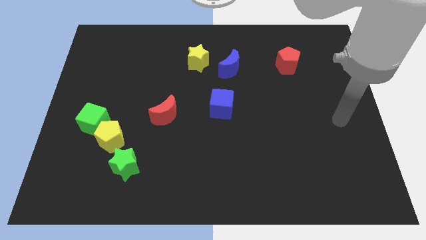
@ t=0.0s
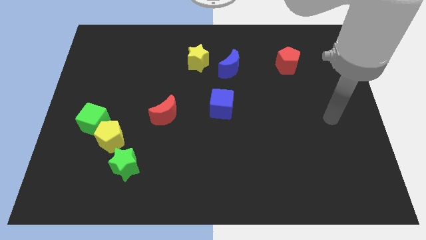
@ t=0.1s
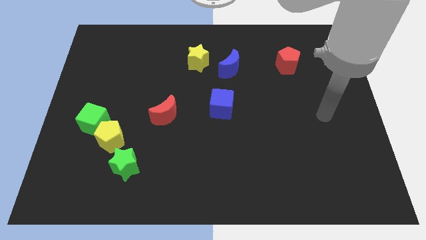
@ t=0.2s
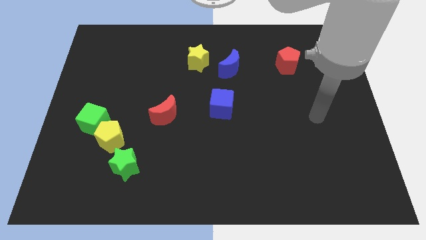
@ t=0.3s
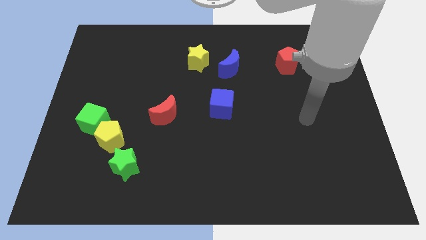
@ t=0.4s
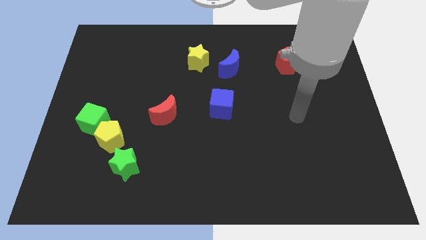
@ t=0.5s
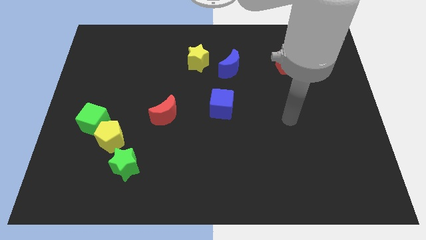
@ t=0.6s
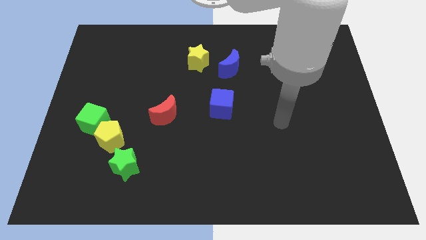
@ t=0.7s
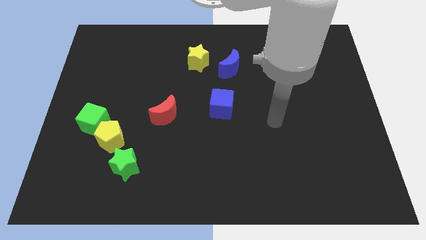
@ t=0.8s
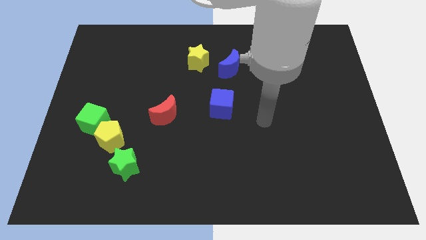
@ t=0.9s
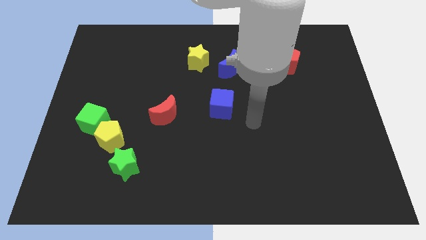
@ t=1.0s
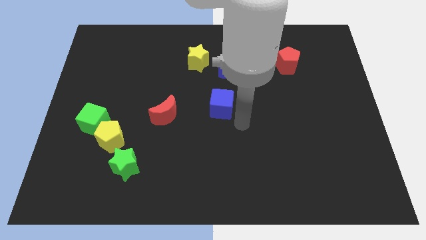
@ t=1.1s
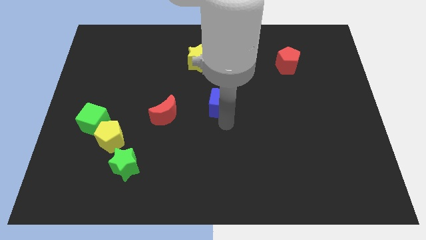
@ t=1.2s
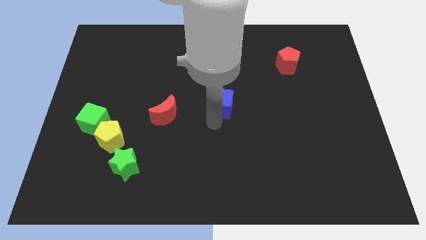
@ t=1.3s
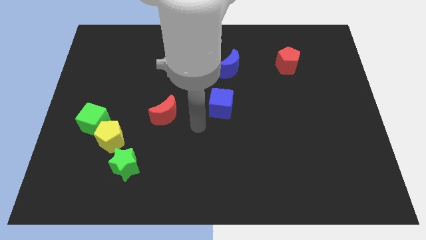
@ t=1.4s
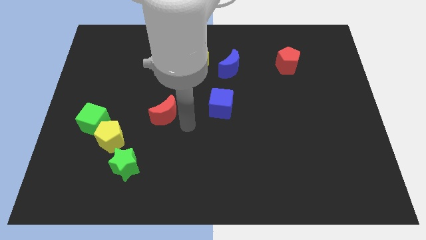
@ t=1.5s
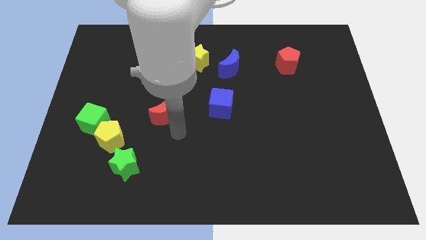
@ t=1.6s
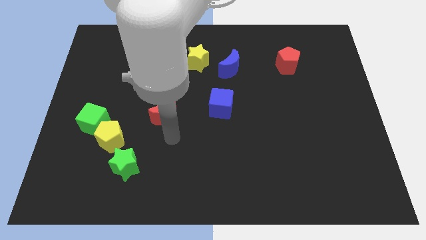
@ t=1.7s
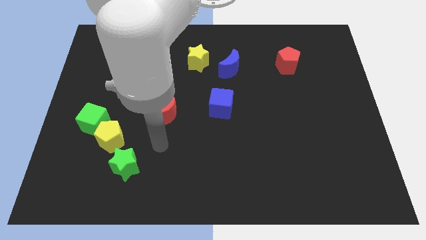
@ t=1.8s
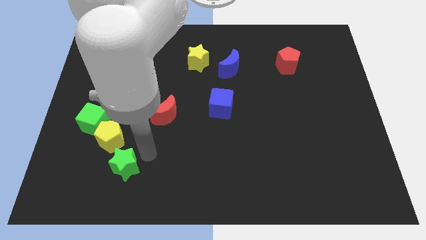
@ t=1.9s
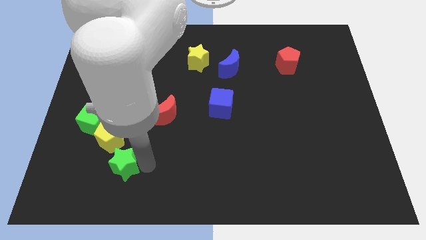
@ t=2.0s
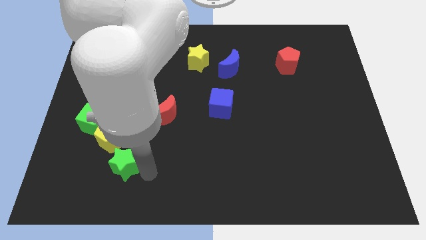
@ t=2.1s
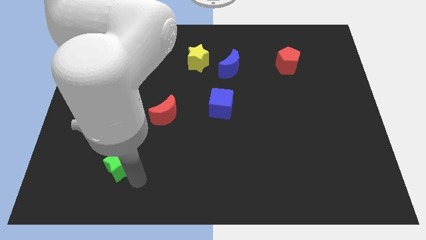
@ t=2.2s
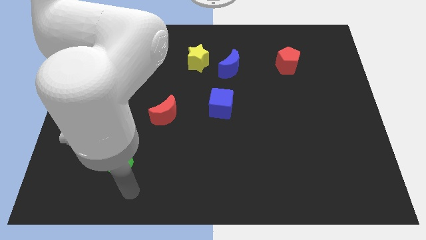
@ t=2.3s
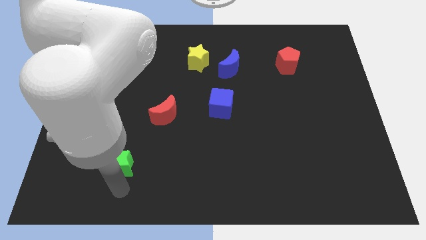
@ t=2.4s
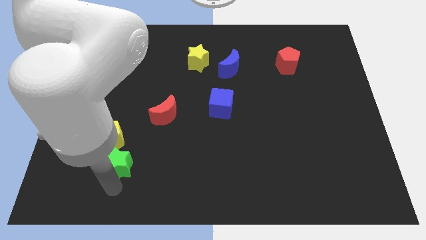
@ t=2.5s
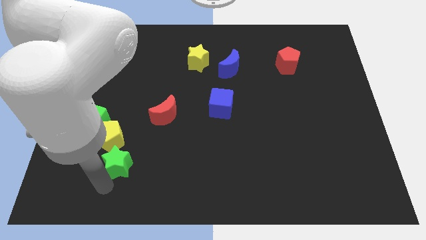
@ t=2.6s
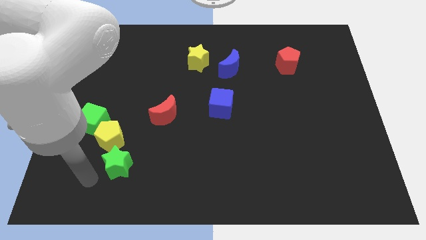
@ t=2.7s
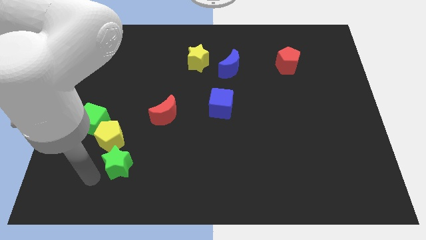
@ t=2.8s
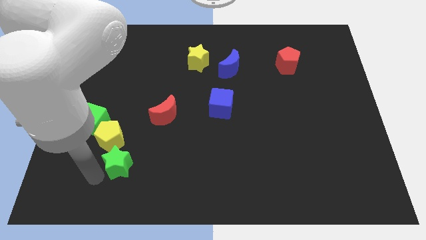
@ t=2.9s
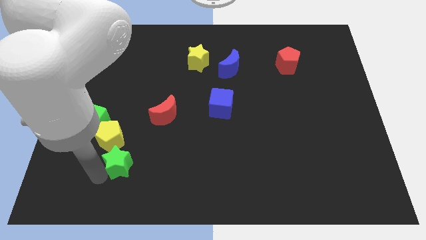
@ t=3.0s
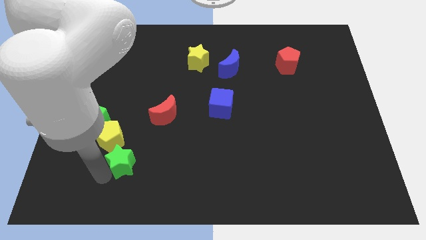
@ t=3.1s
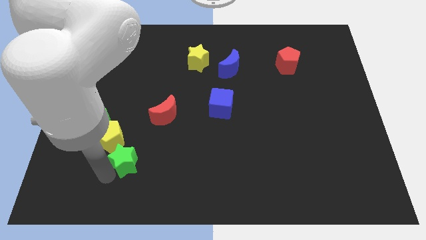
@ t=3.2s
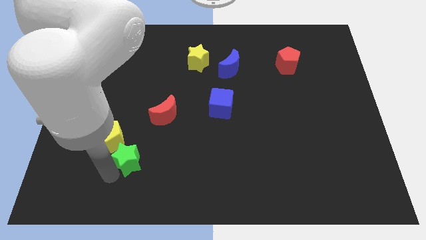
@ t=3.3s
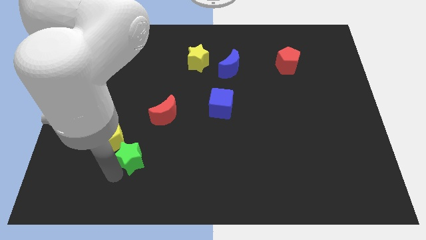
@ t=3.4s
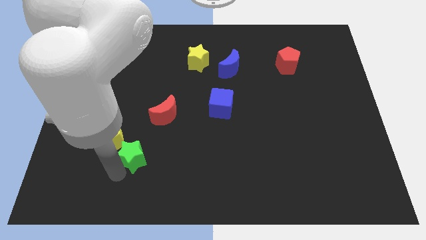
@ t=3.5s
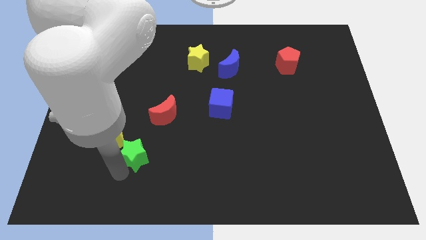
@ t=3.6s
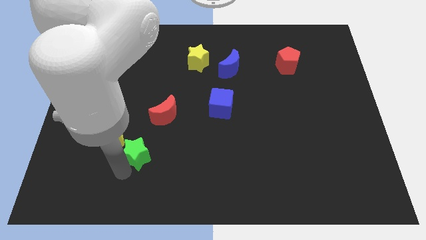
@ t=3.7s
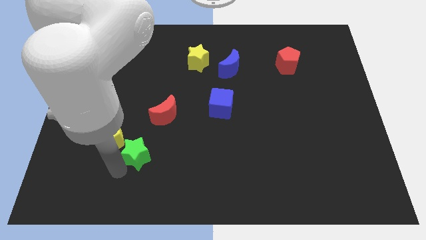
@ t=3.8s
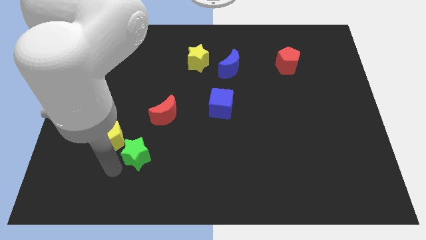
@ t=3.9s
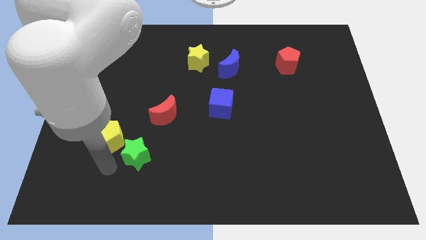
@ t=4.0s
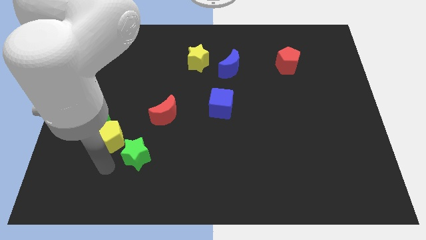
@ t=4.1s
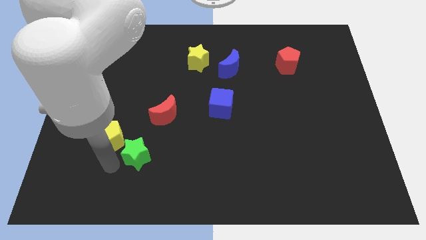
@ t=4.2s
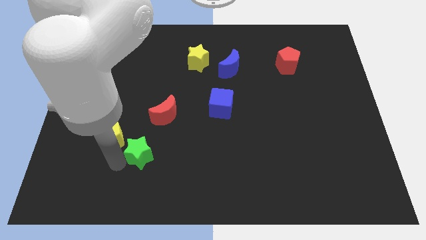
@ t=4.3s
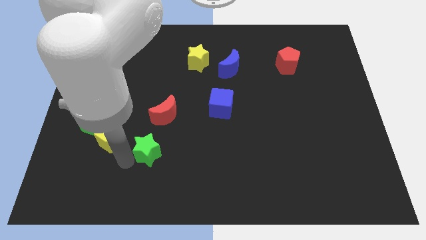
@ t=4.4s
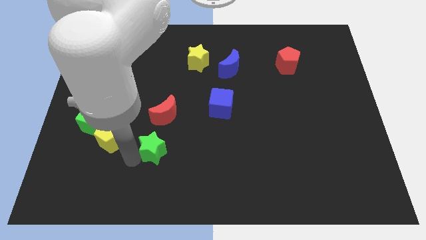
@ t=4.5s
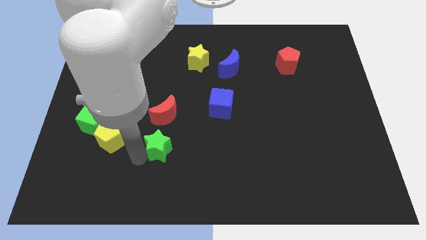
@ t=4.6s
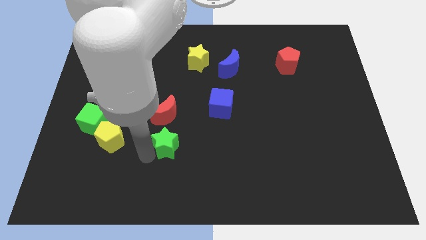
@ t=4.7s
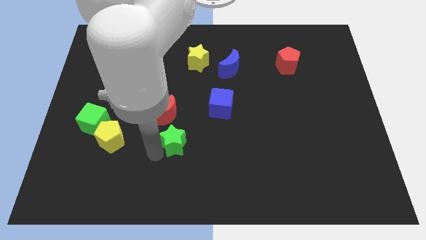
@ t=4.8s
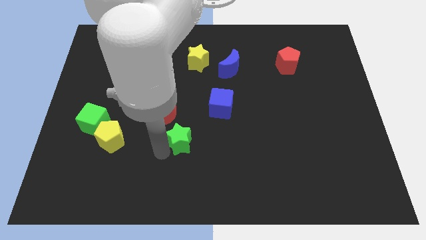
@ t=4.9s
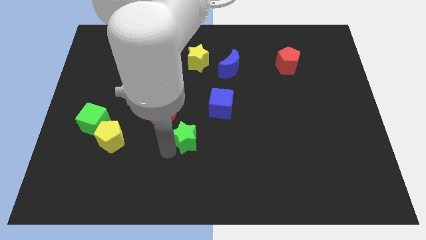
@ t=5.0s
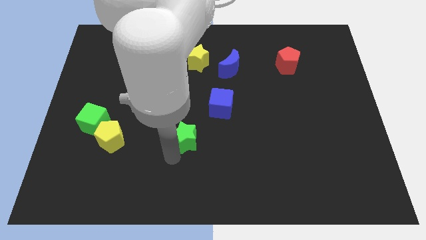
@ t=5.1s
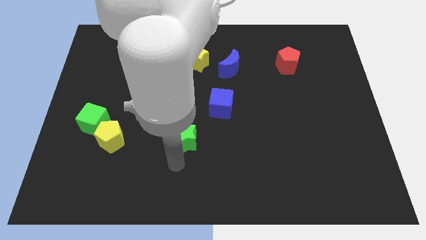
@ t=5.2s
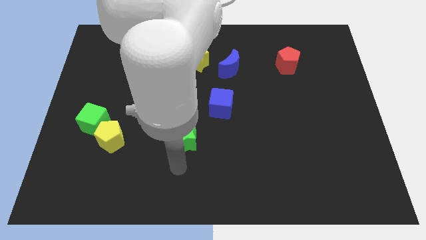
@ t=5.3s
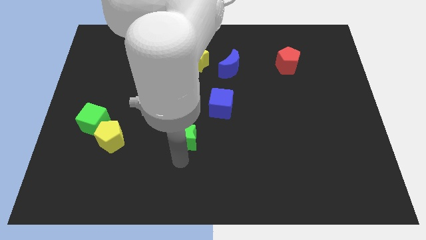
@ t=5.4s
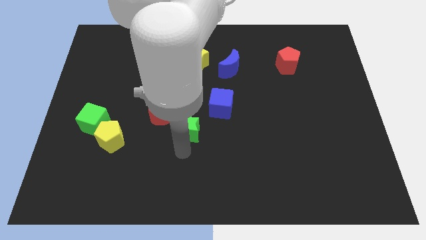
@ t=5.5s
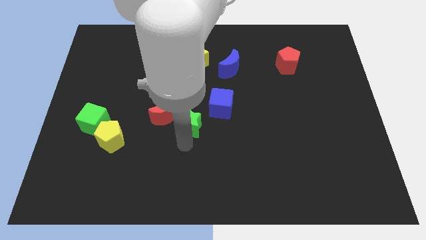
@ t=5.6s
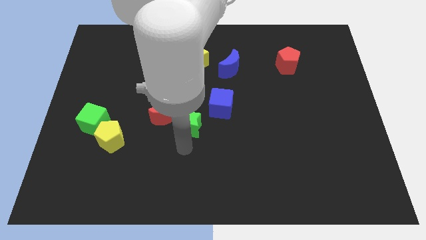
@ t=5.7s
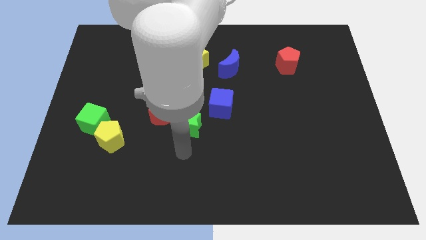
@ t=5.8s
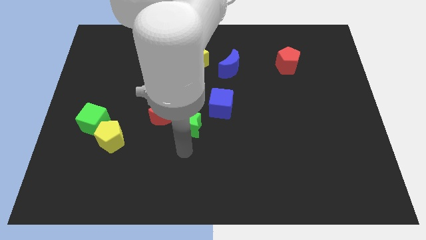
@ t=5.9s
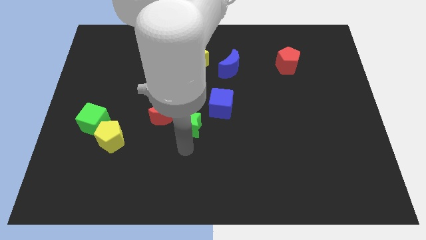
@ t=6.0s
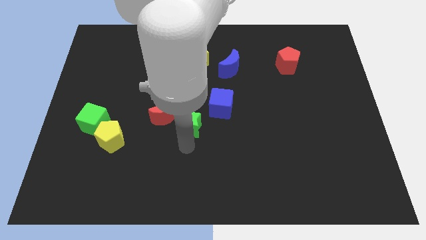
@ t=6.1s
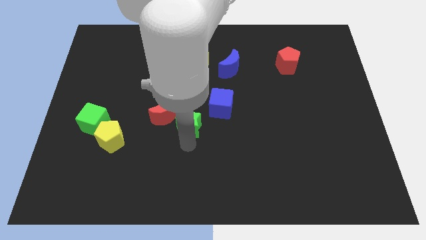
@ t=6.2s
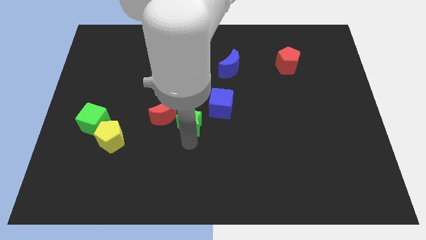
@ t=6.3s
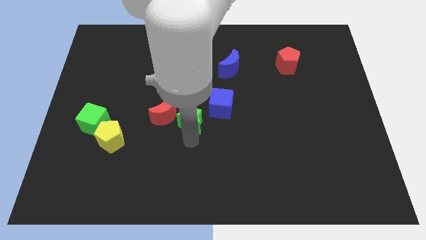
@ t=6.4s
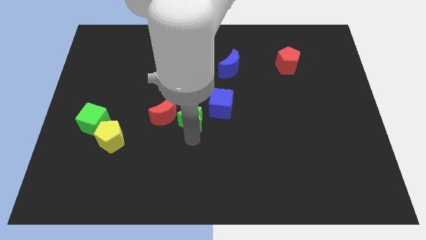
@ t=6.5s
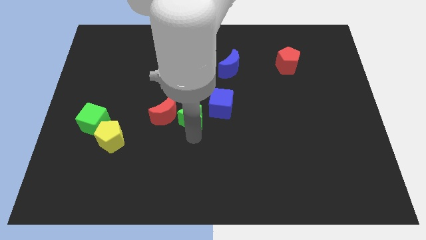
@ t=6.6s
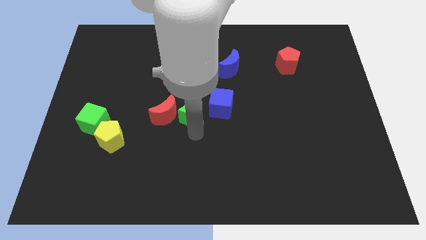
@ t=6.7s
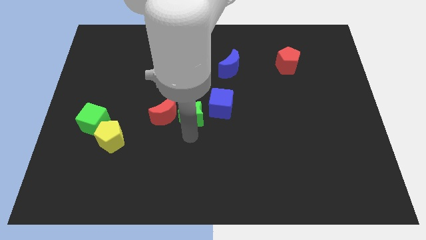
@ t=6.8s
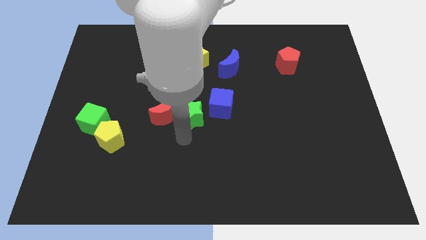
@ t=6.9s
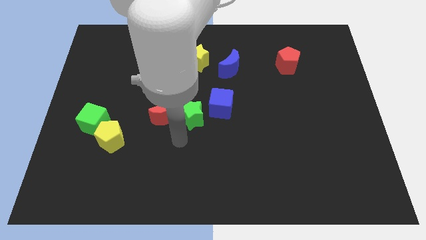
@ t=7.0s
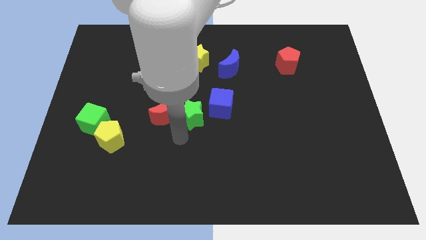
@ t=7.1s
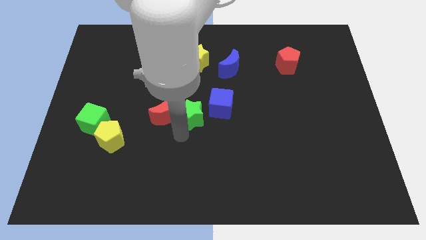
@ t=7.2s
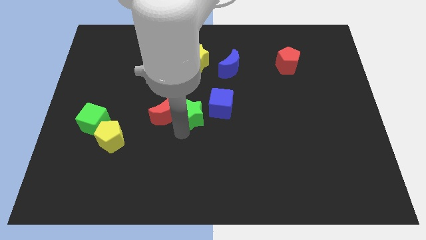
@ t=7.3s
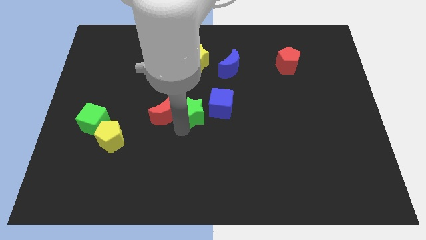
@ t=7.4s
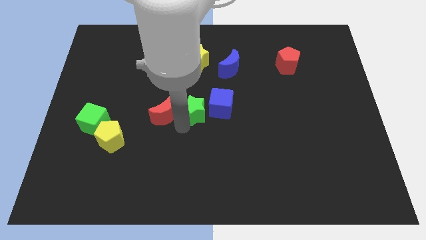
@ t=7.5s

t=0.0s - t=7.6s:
slide the green star upwards and to the right diagonally

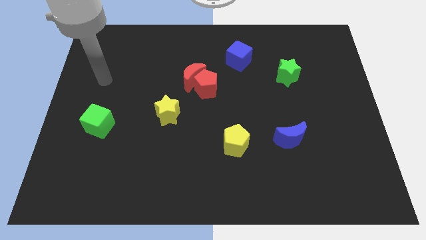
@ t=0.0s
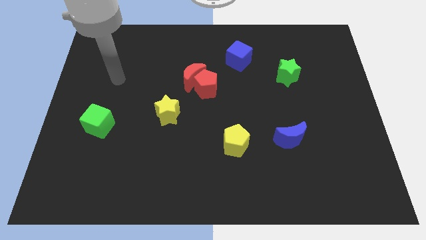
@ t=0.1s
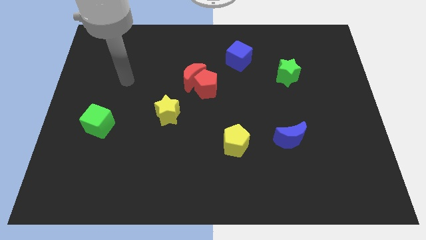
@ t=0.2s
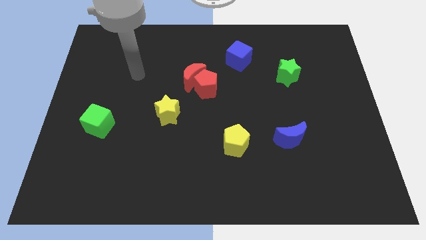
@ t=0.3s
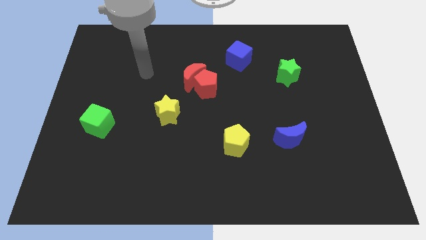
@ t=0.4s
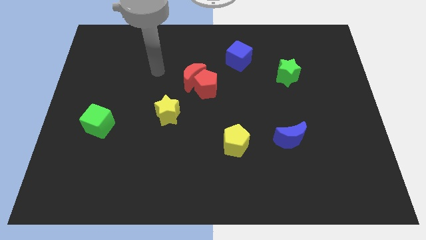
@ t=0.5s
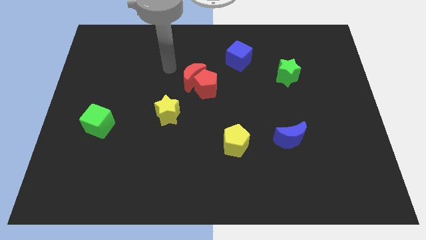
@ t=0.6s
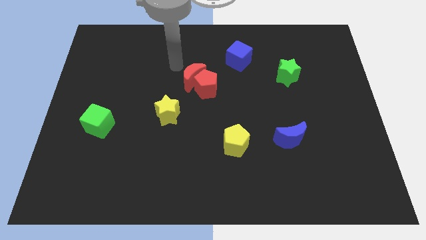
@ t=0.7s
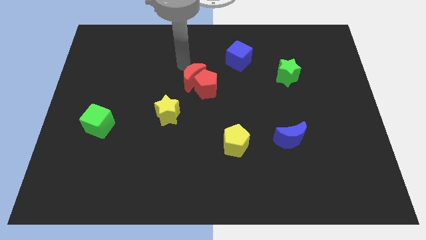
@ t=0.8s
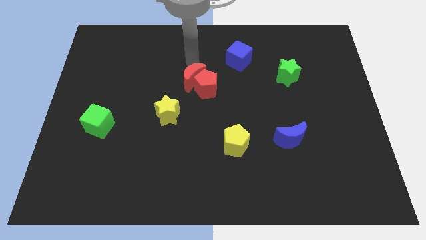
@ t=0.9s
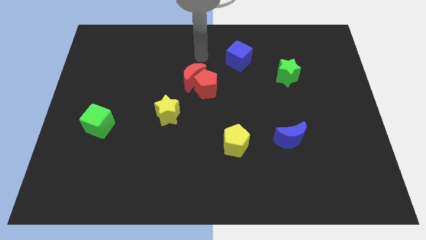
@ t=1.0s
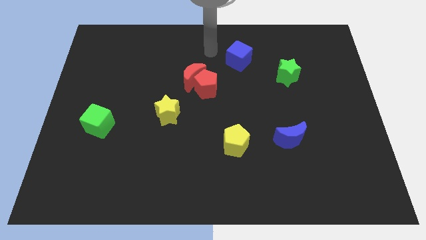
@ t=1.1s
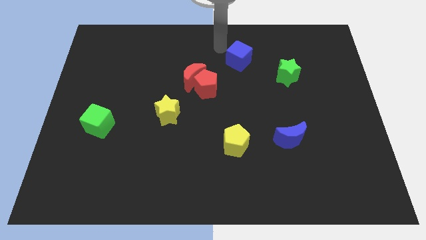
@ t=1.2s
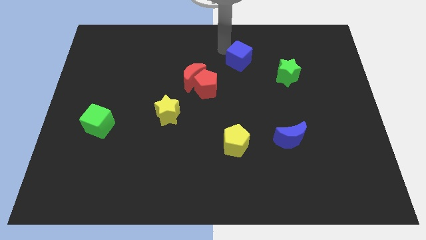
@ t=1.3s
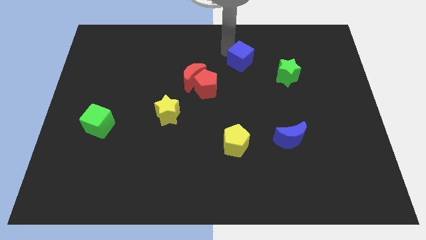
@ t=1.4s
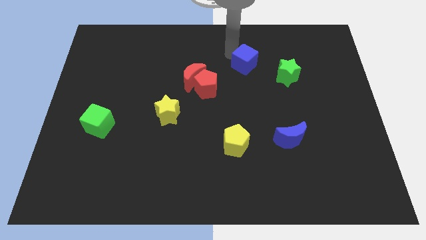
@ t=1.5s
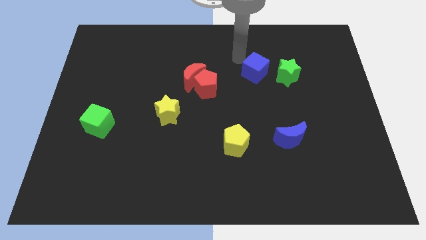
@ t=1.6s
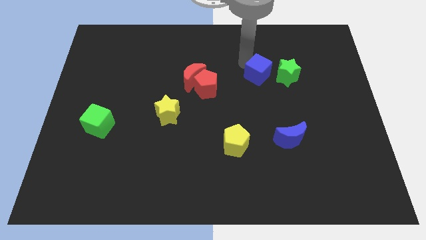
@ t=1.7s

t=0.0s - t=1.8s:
slightly push the blue cube down and right diagonally
